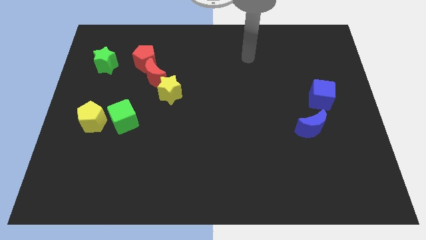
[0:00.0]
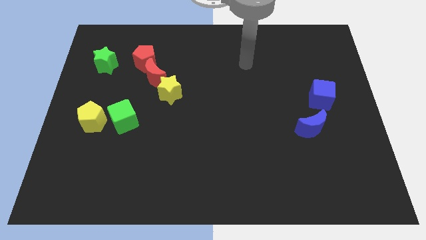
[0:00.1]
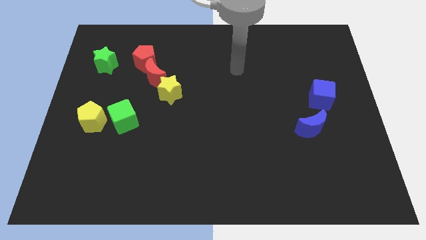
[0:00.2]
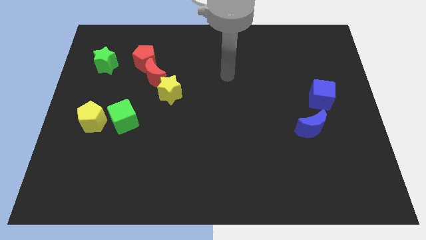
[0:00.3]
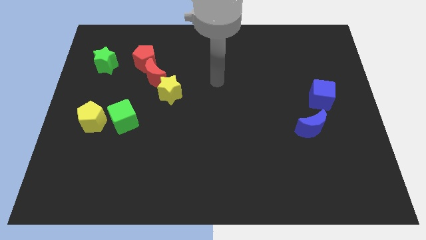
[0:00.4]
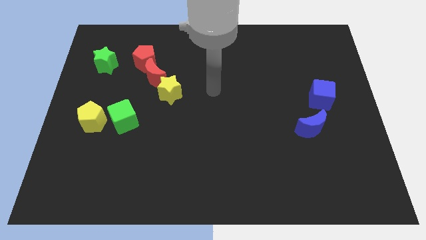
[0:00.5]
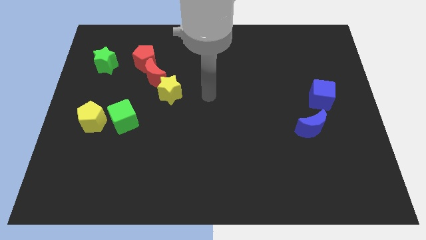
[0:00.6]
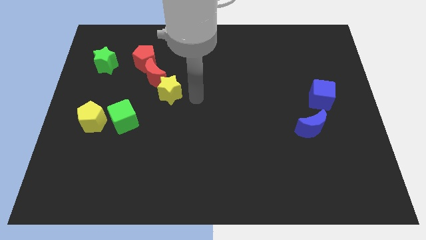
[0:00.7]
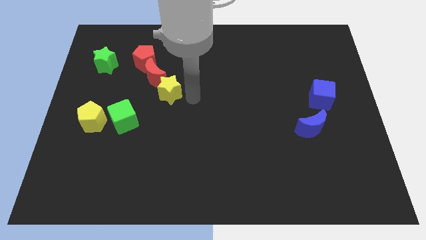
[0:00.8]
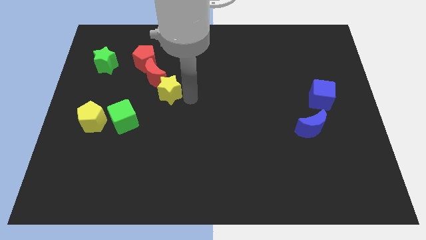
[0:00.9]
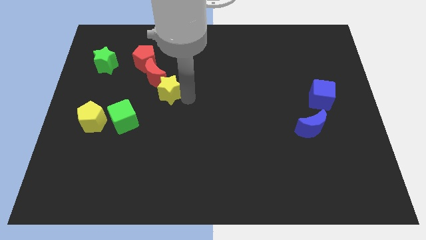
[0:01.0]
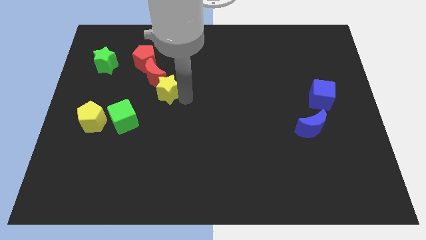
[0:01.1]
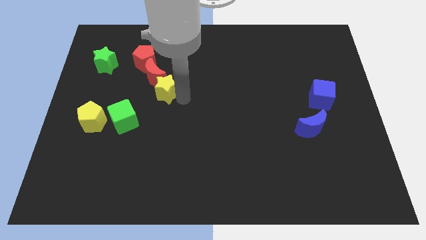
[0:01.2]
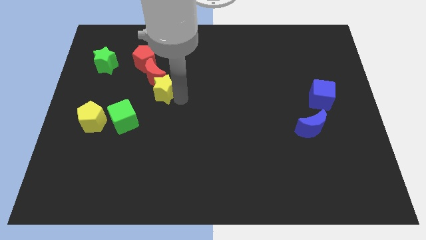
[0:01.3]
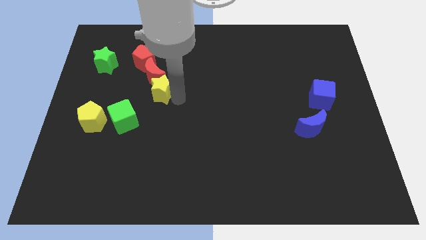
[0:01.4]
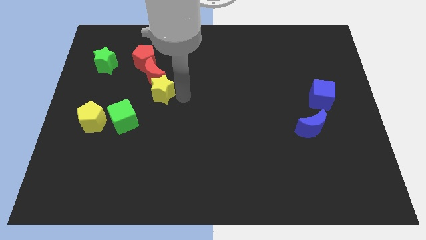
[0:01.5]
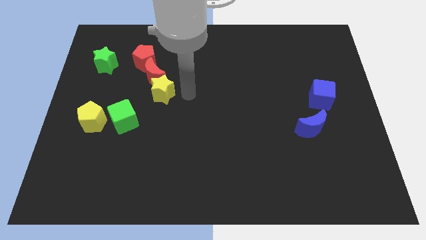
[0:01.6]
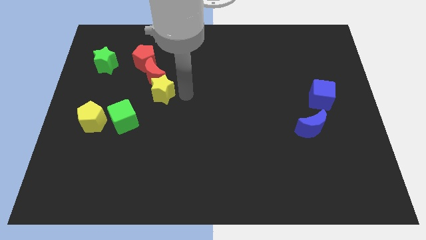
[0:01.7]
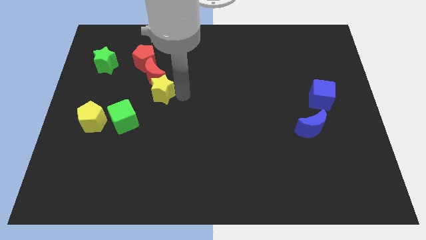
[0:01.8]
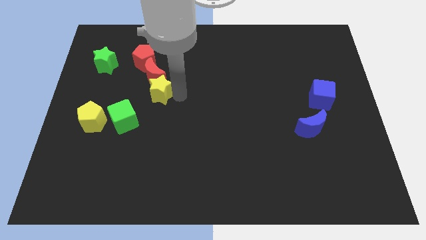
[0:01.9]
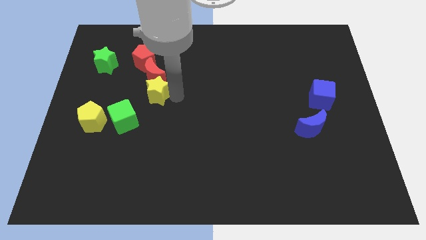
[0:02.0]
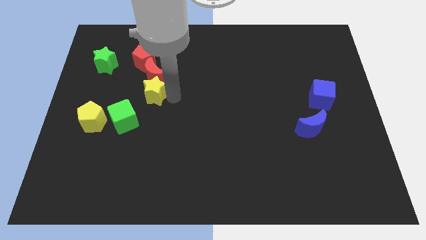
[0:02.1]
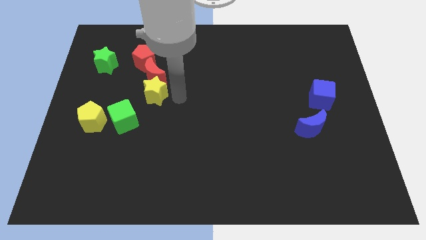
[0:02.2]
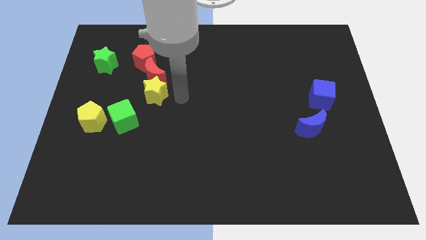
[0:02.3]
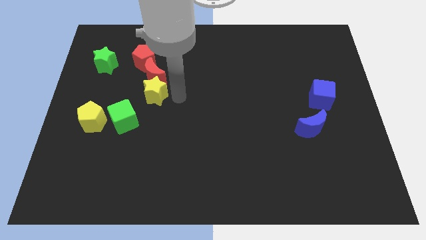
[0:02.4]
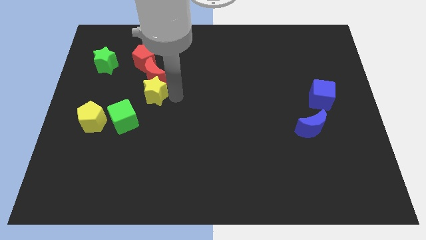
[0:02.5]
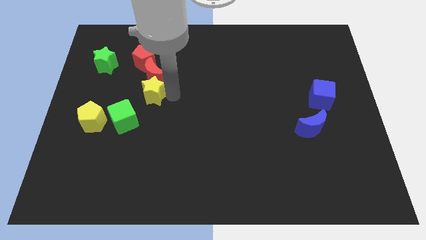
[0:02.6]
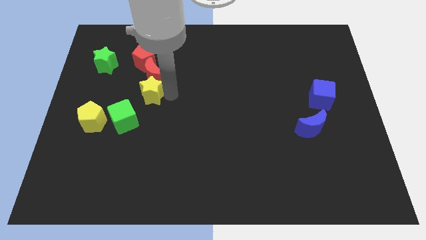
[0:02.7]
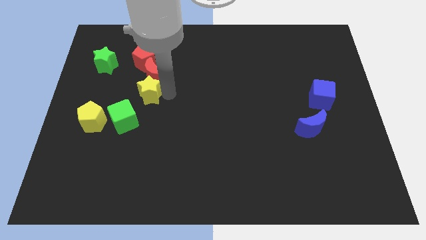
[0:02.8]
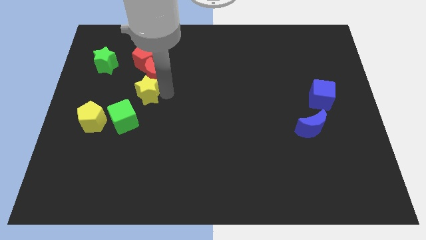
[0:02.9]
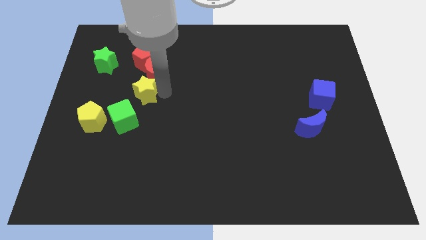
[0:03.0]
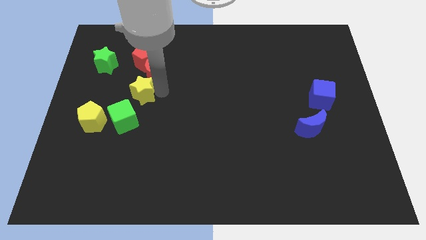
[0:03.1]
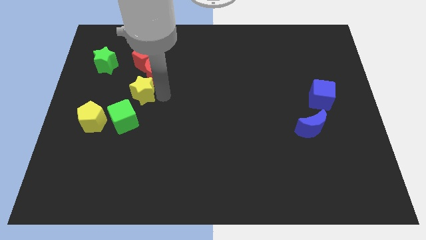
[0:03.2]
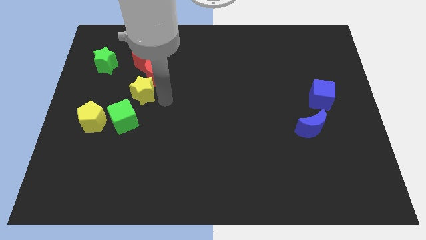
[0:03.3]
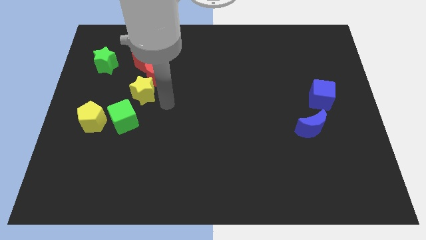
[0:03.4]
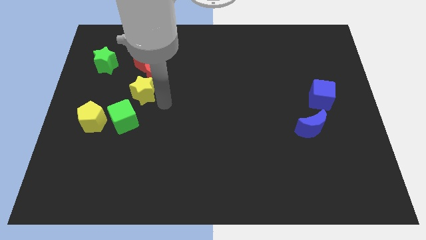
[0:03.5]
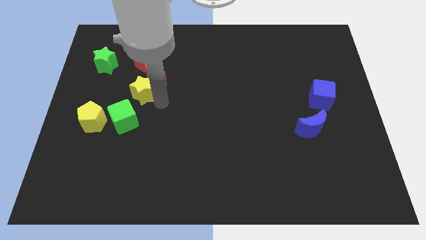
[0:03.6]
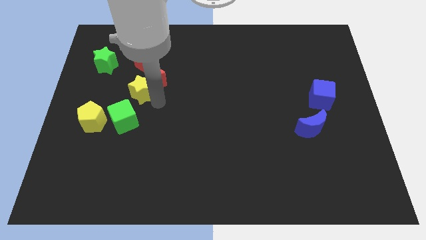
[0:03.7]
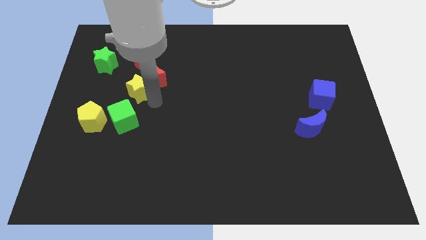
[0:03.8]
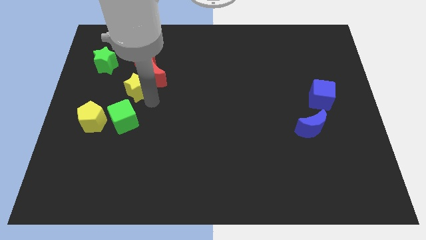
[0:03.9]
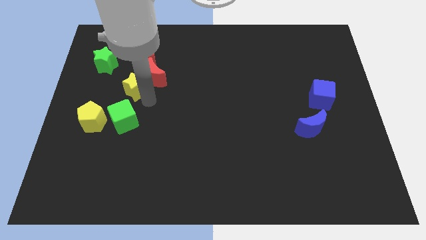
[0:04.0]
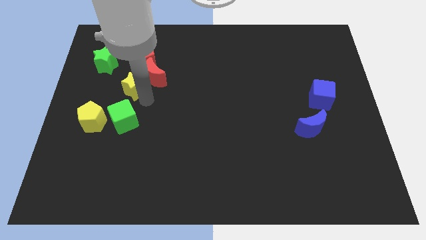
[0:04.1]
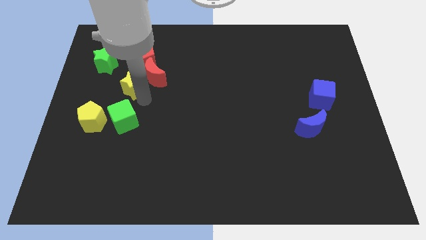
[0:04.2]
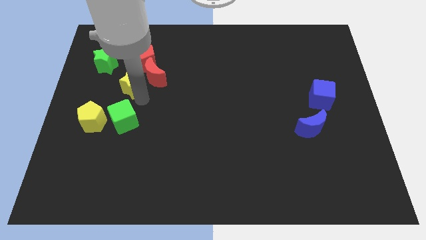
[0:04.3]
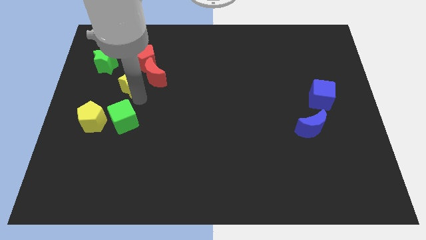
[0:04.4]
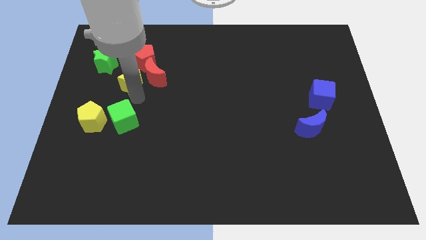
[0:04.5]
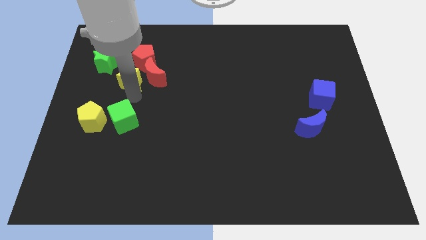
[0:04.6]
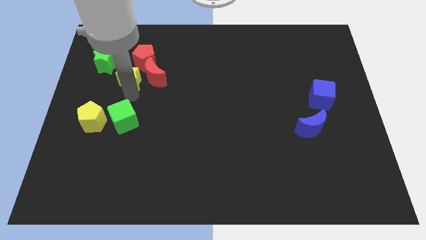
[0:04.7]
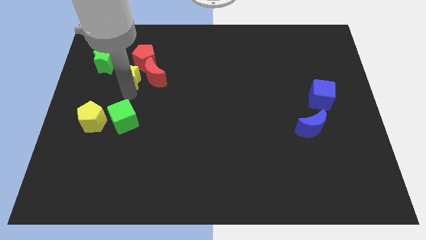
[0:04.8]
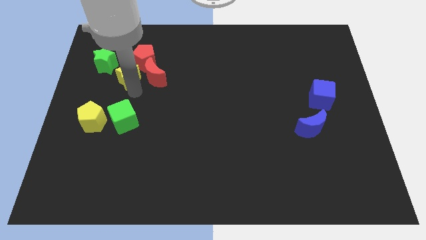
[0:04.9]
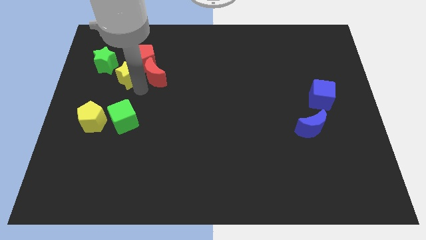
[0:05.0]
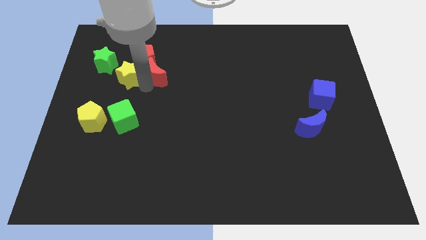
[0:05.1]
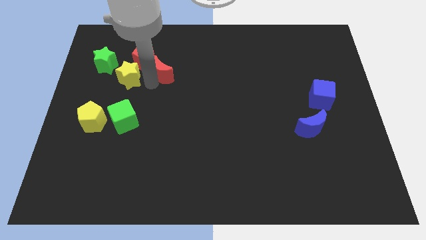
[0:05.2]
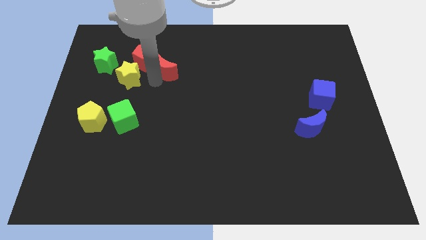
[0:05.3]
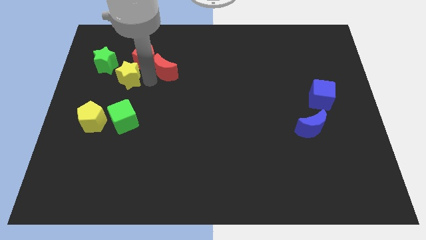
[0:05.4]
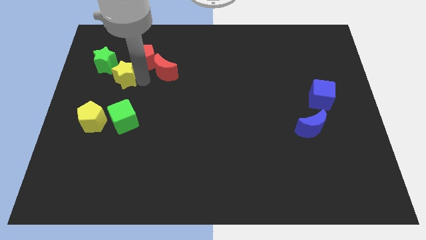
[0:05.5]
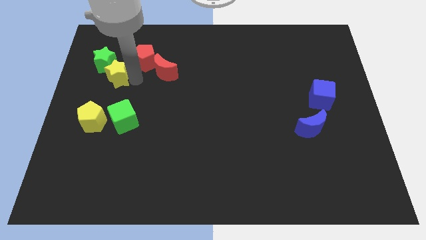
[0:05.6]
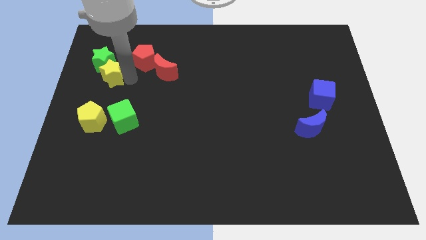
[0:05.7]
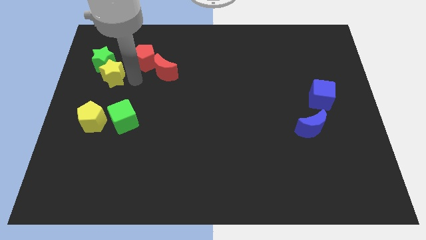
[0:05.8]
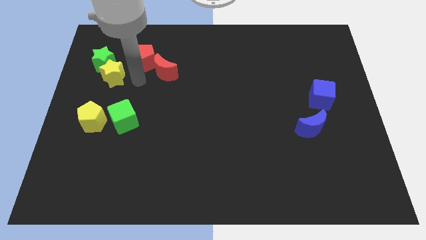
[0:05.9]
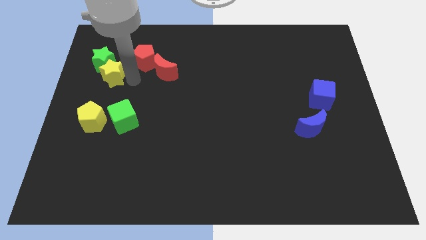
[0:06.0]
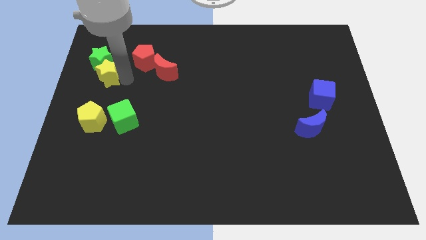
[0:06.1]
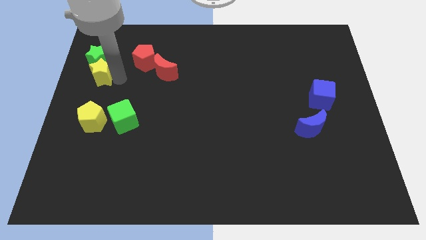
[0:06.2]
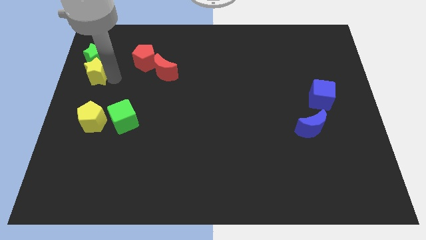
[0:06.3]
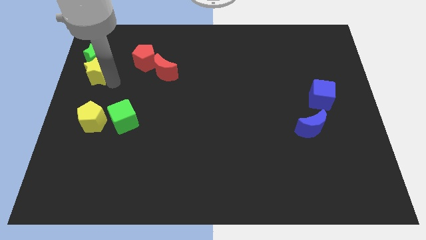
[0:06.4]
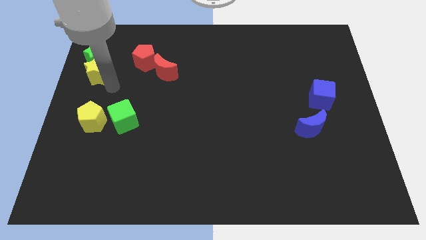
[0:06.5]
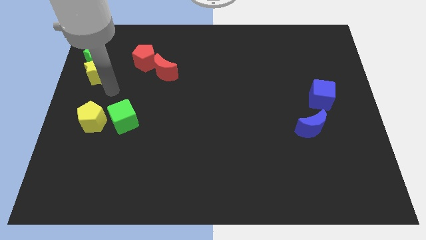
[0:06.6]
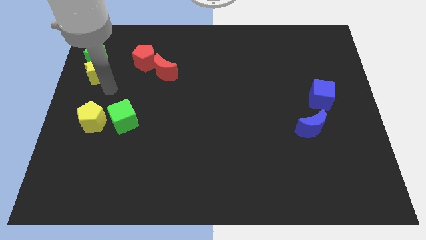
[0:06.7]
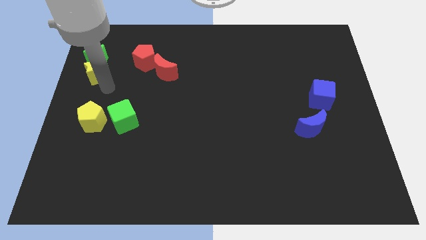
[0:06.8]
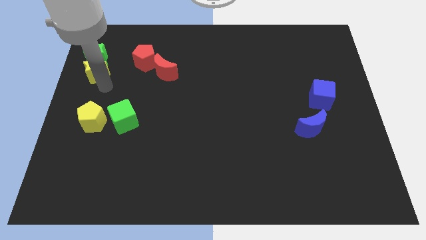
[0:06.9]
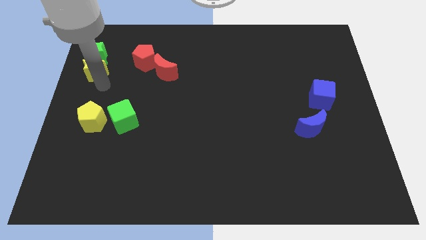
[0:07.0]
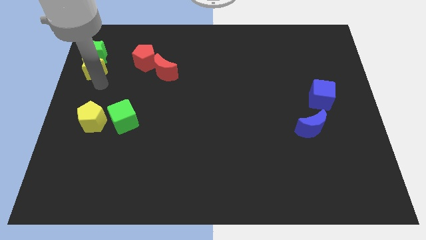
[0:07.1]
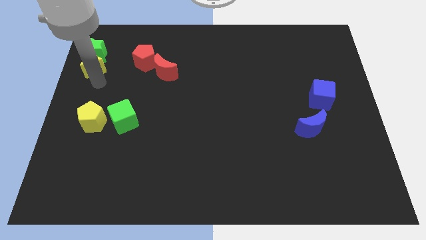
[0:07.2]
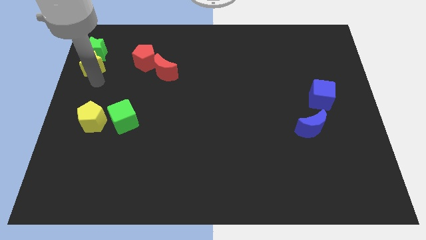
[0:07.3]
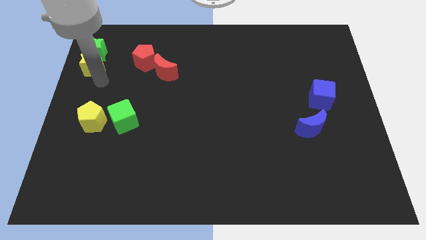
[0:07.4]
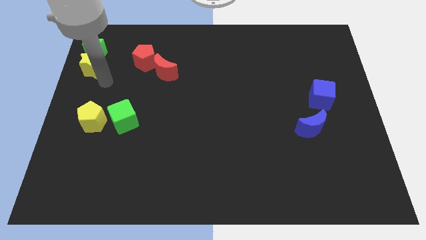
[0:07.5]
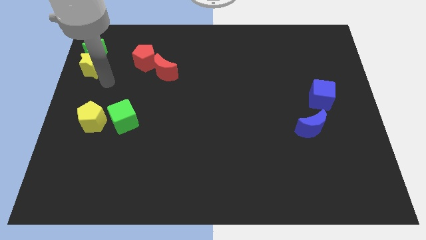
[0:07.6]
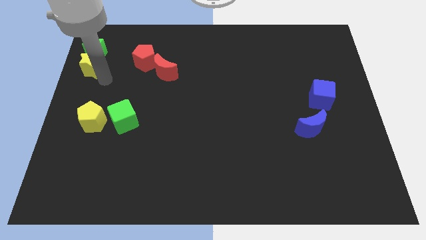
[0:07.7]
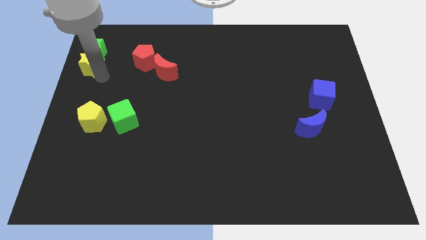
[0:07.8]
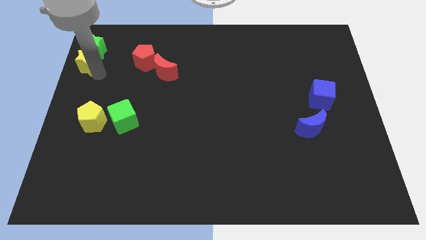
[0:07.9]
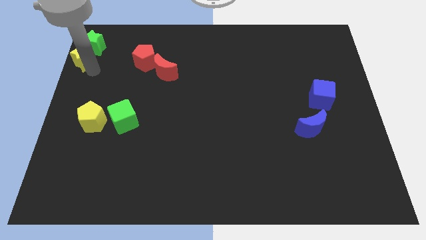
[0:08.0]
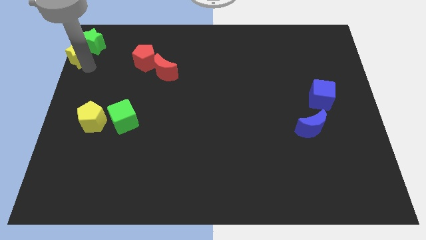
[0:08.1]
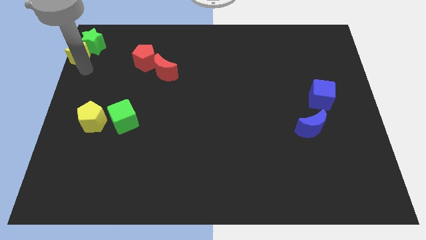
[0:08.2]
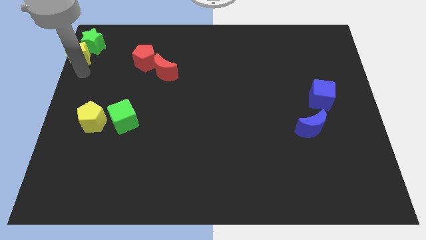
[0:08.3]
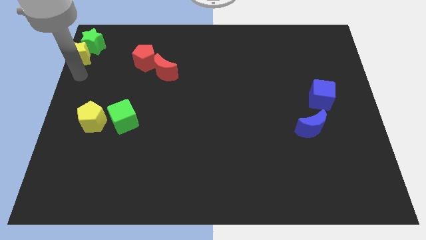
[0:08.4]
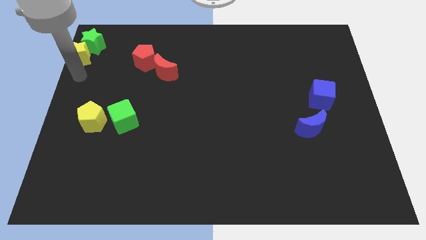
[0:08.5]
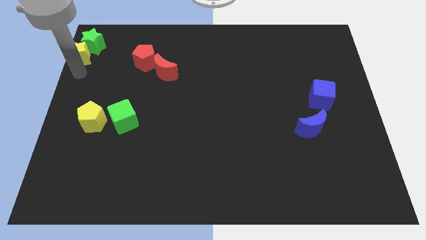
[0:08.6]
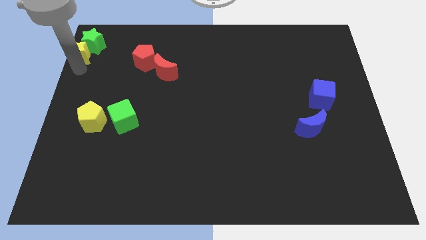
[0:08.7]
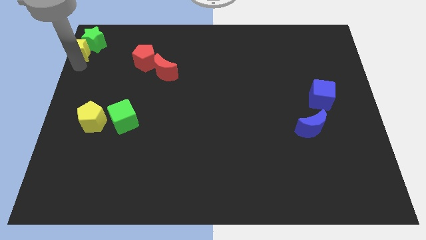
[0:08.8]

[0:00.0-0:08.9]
push the yellow star to the top left of the board
